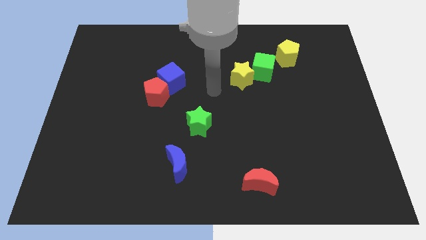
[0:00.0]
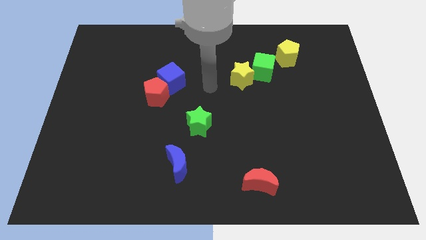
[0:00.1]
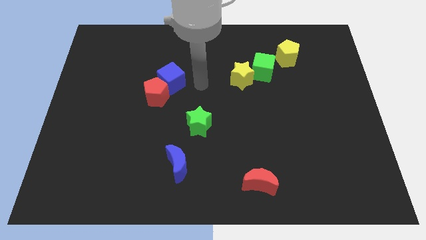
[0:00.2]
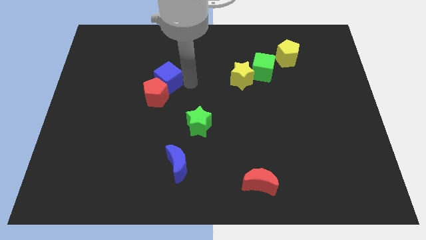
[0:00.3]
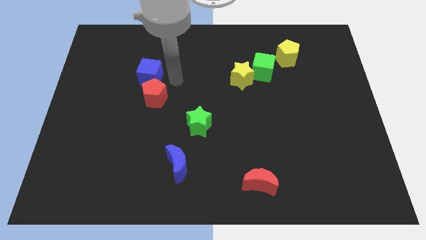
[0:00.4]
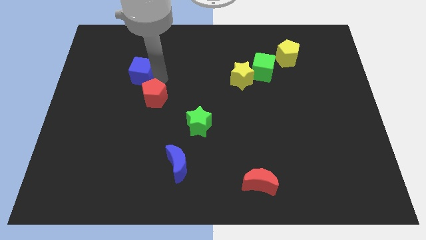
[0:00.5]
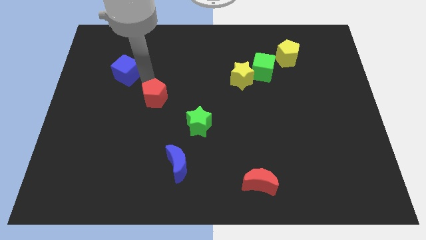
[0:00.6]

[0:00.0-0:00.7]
separate the red pentagon from the blue cube

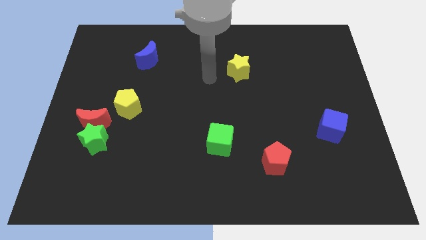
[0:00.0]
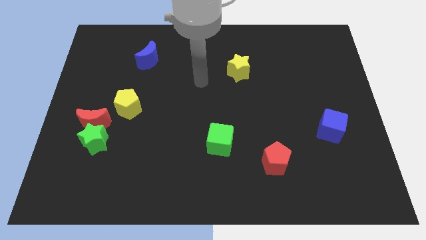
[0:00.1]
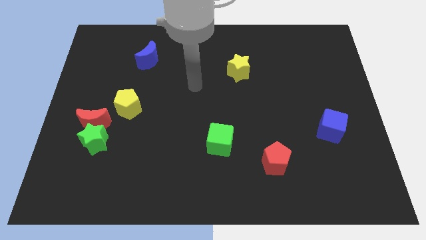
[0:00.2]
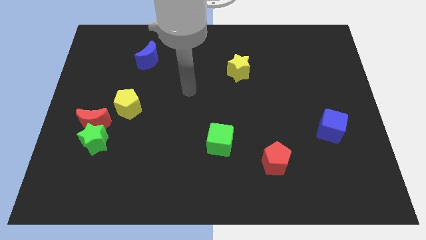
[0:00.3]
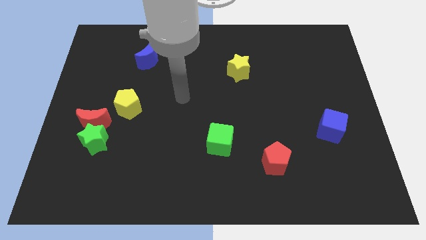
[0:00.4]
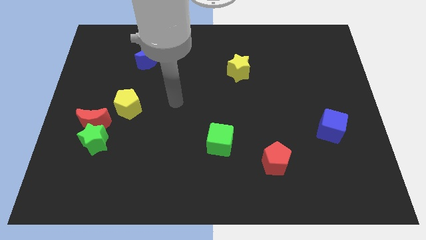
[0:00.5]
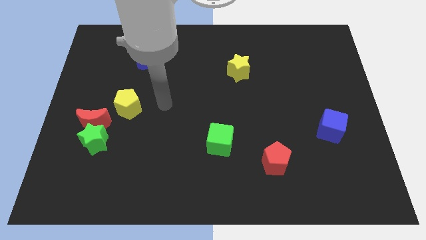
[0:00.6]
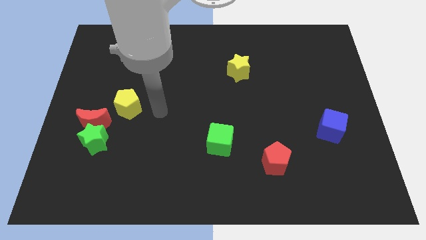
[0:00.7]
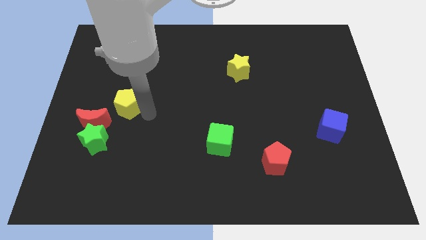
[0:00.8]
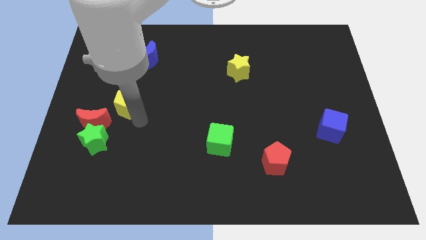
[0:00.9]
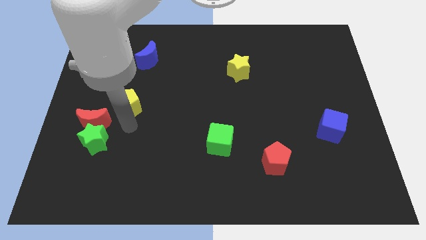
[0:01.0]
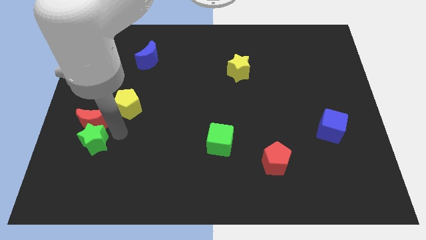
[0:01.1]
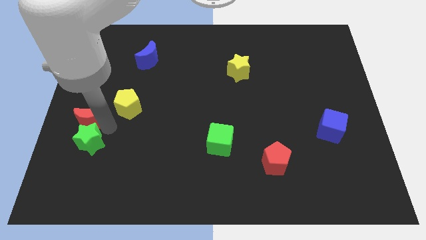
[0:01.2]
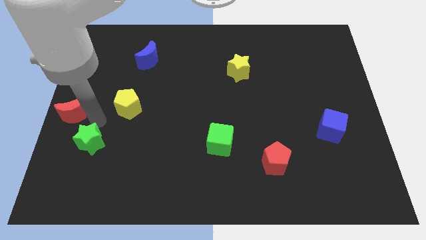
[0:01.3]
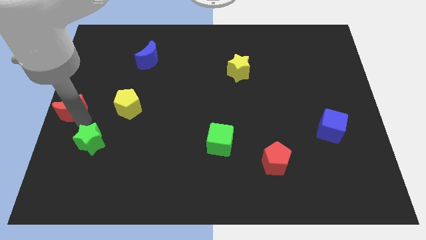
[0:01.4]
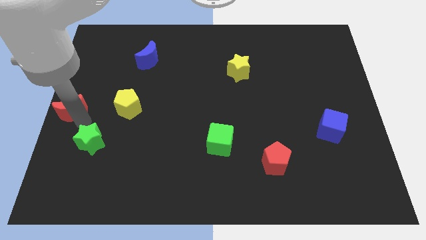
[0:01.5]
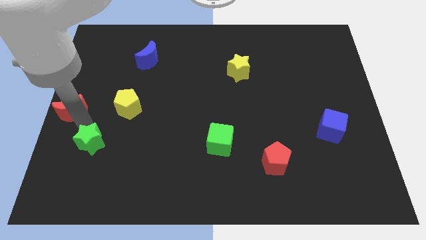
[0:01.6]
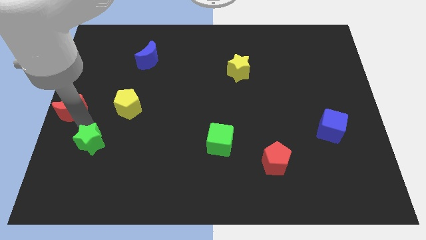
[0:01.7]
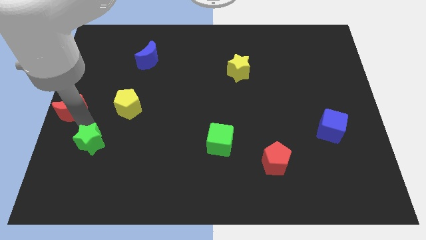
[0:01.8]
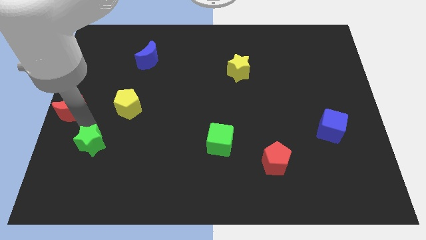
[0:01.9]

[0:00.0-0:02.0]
pull the green star apart from the red moon

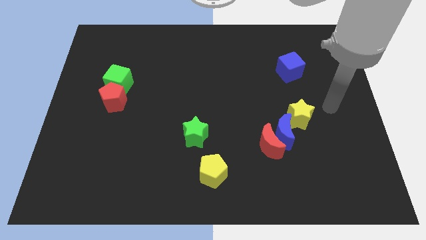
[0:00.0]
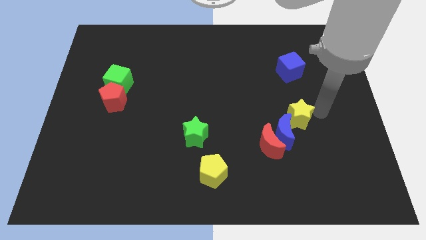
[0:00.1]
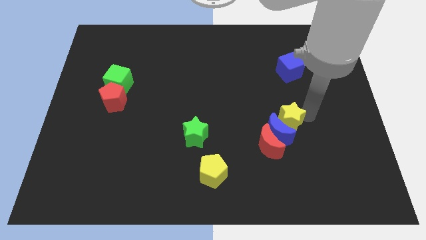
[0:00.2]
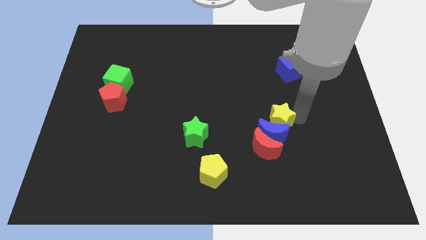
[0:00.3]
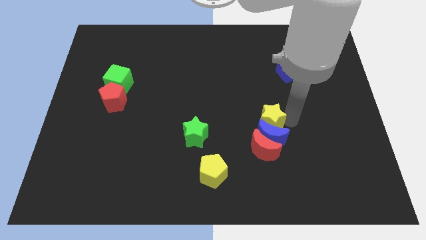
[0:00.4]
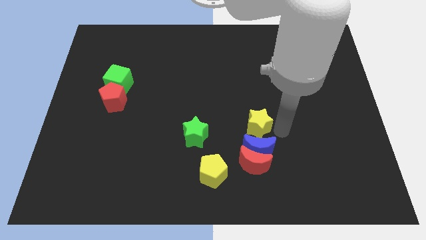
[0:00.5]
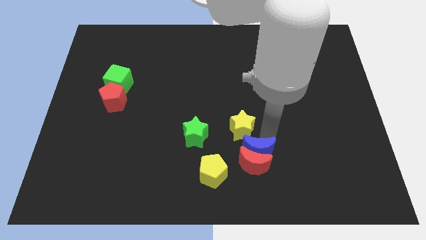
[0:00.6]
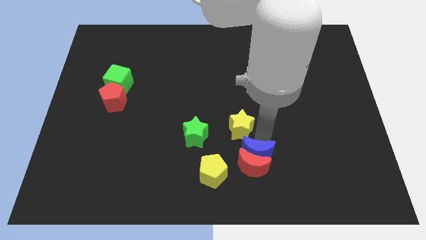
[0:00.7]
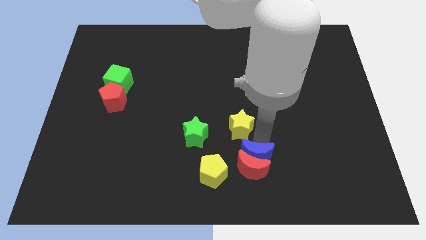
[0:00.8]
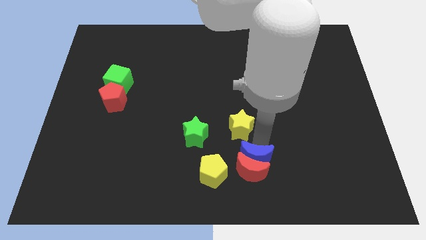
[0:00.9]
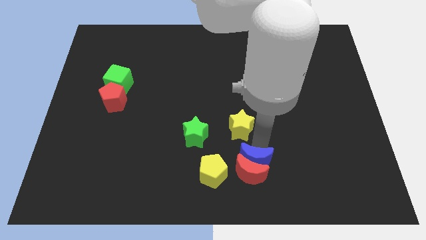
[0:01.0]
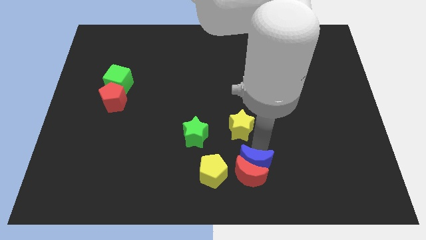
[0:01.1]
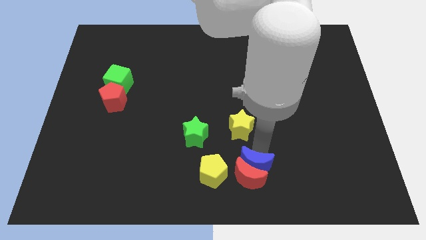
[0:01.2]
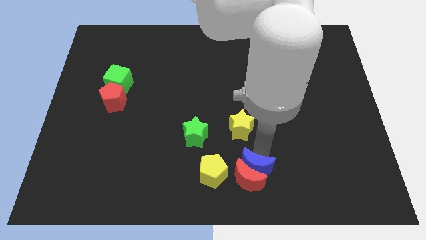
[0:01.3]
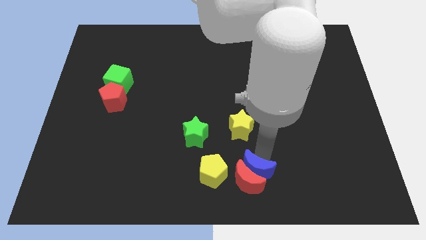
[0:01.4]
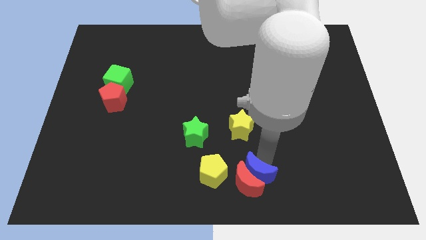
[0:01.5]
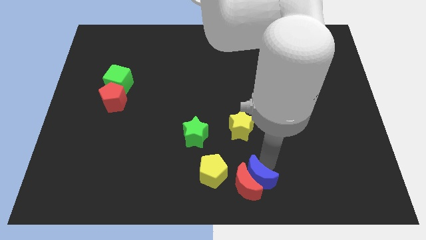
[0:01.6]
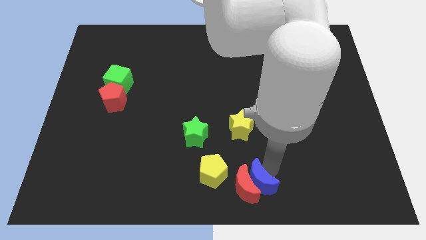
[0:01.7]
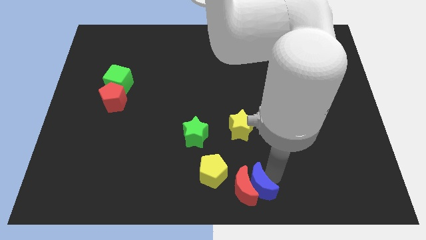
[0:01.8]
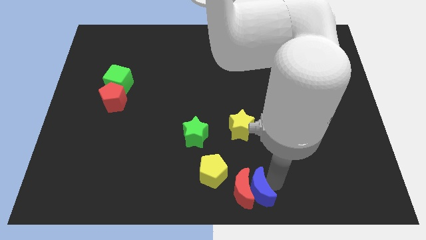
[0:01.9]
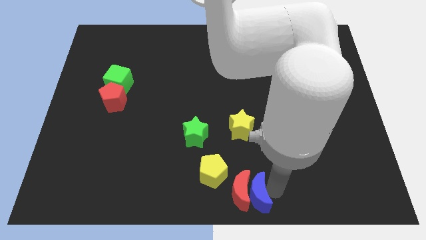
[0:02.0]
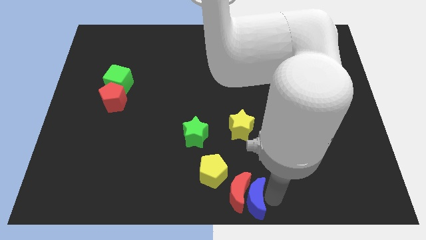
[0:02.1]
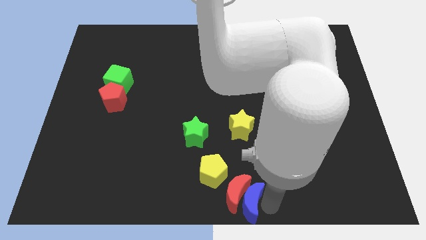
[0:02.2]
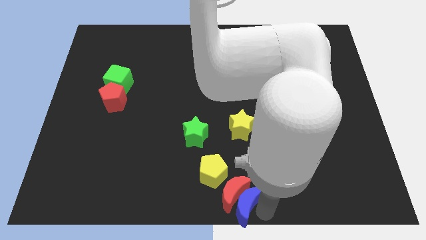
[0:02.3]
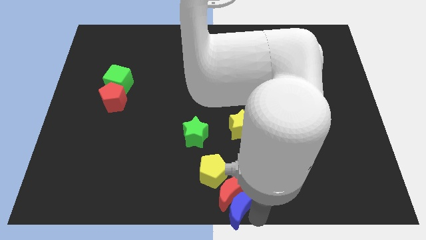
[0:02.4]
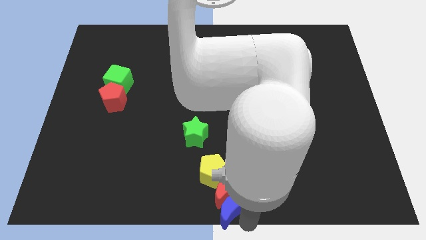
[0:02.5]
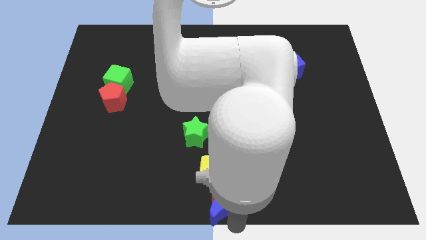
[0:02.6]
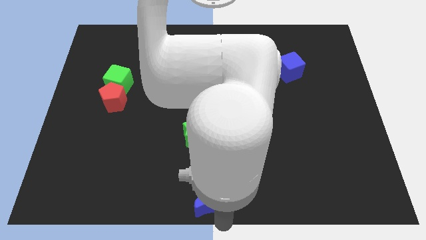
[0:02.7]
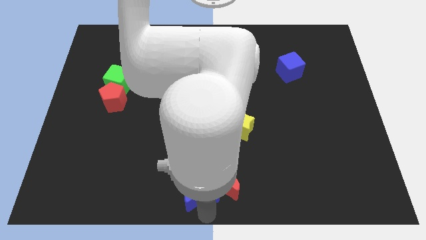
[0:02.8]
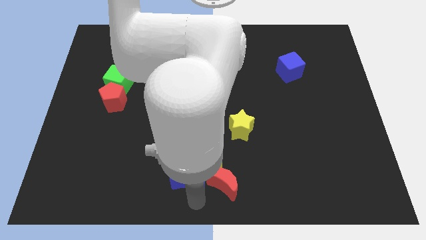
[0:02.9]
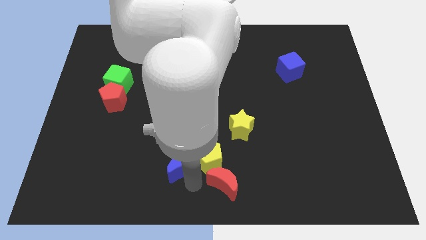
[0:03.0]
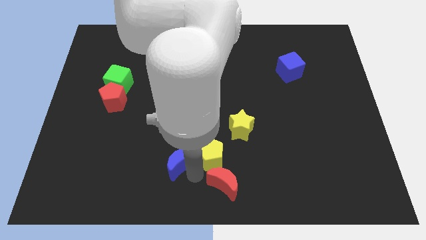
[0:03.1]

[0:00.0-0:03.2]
pull the red moon apart from the blue moon

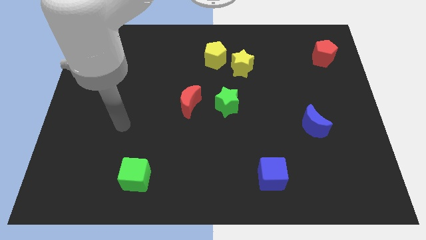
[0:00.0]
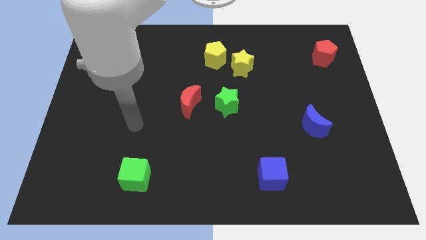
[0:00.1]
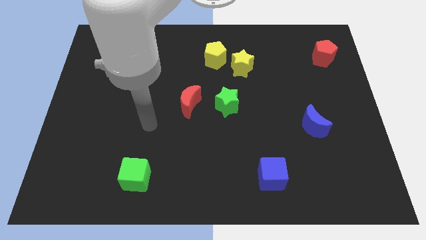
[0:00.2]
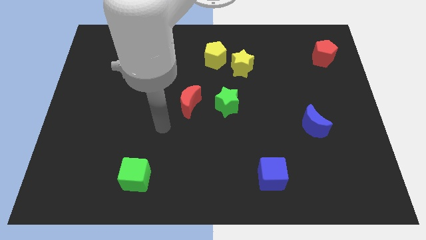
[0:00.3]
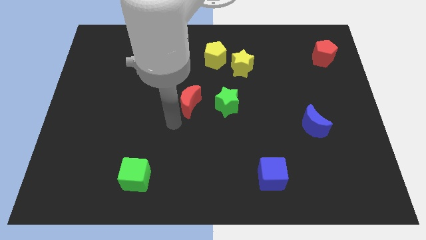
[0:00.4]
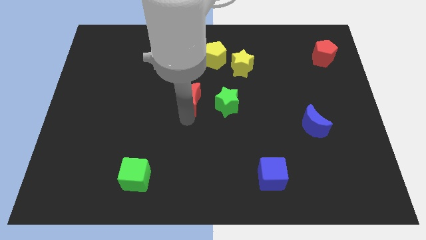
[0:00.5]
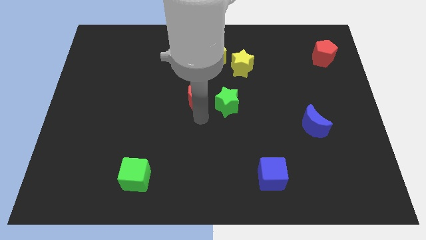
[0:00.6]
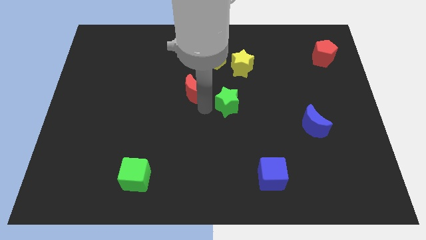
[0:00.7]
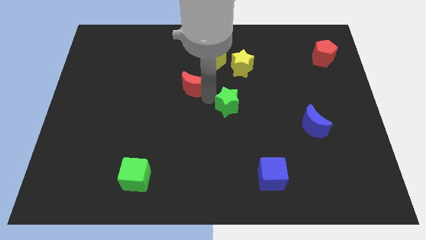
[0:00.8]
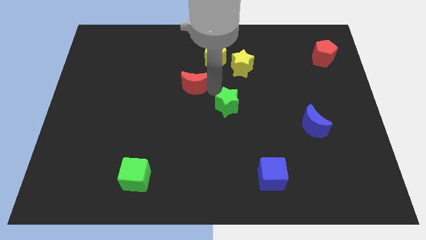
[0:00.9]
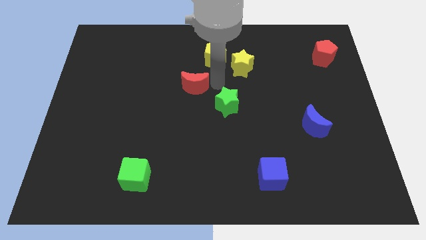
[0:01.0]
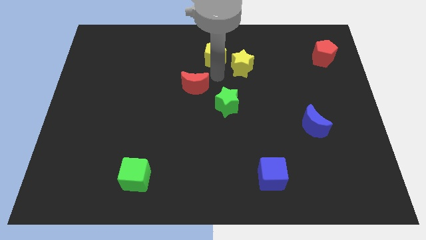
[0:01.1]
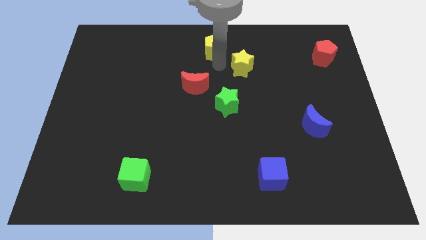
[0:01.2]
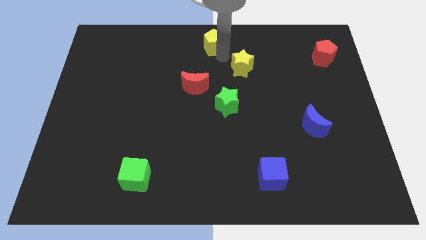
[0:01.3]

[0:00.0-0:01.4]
move the yellow star away from the yellow pentagon

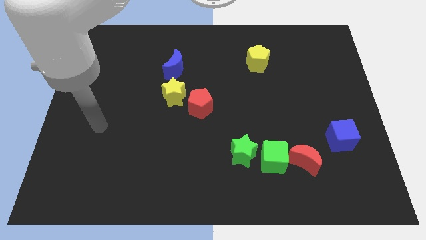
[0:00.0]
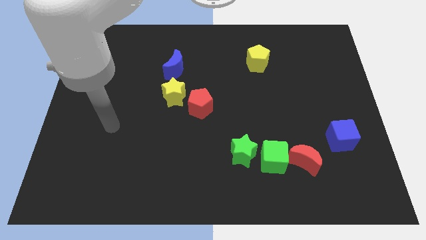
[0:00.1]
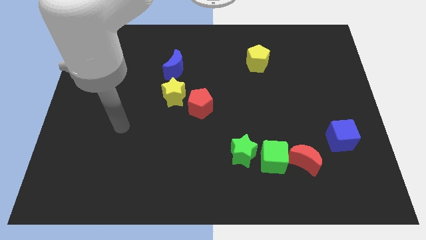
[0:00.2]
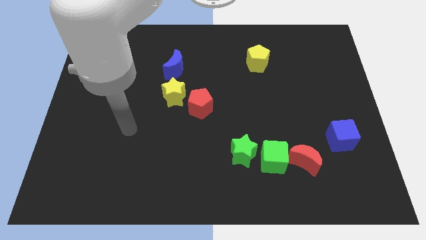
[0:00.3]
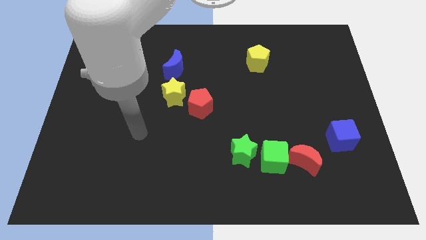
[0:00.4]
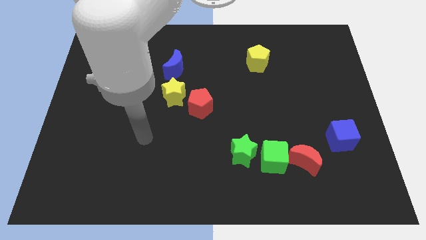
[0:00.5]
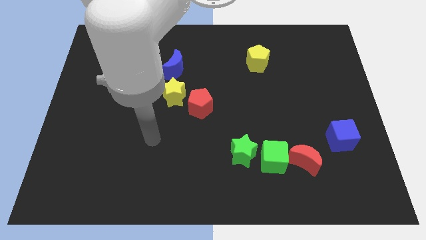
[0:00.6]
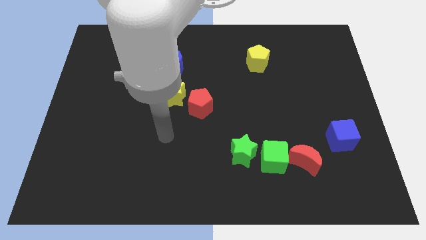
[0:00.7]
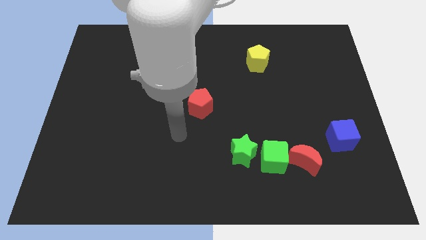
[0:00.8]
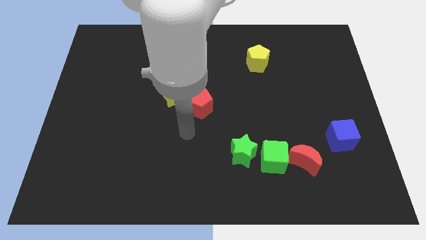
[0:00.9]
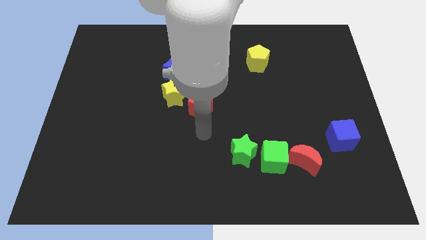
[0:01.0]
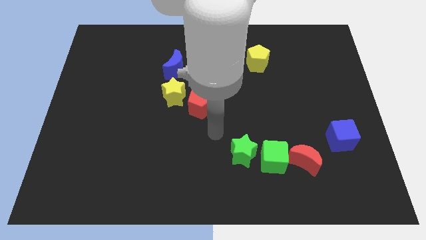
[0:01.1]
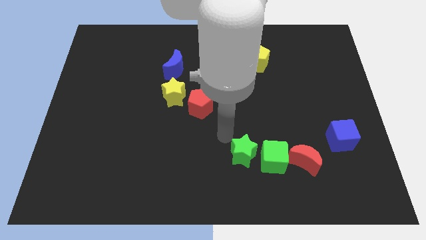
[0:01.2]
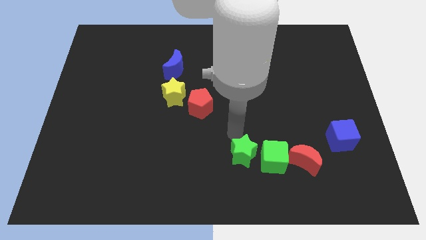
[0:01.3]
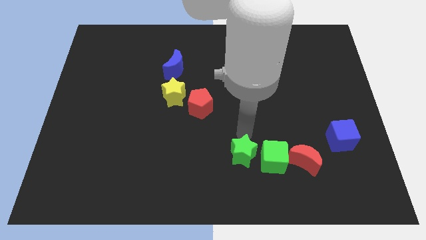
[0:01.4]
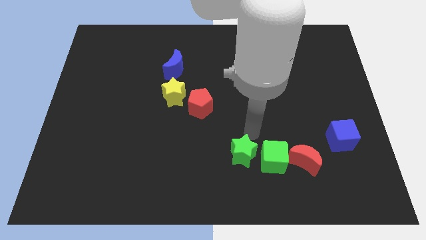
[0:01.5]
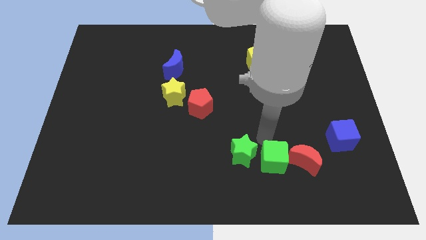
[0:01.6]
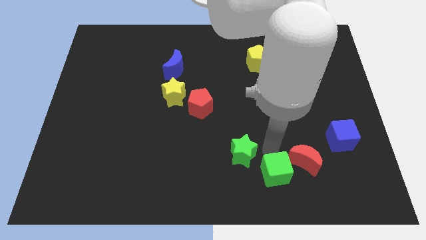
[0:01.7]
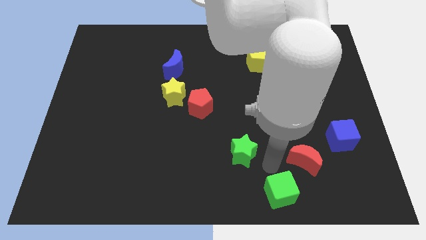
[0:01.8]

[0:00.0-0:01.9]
move the green star away from the green cube

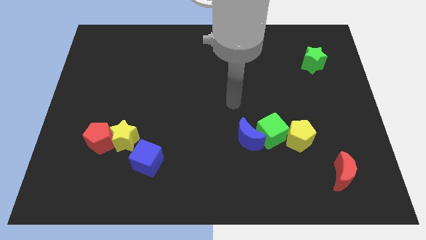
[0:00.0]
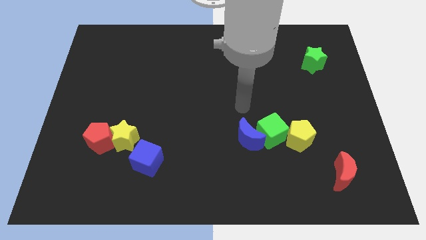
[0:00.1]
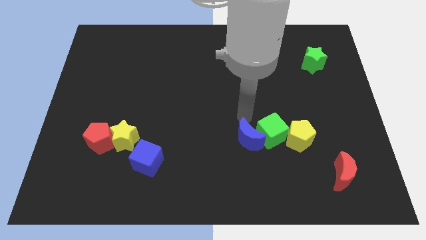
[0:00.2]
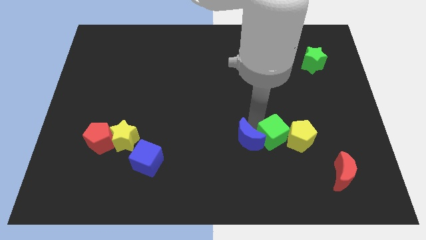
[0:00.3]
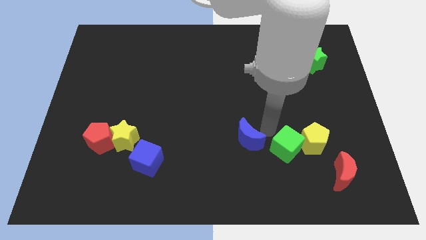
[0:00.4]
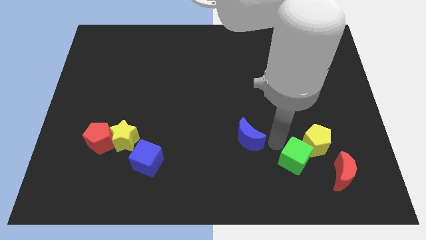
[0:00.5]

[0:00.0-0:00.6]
separate the blue moon from the green cube
